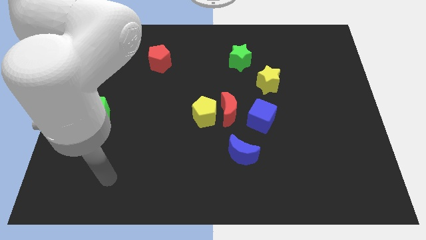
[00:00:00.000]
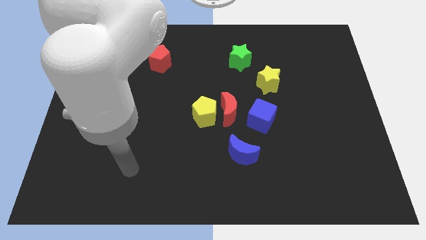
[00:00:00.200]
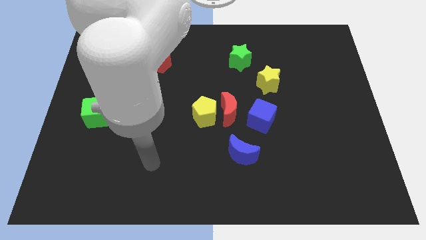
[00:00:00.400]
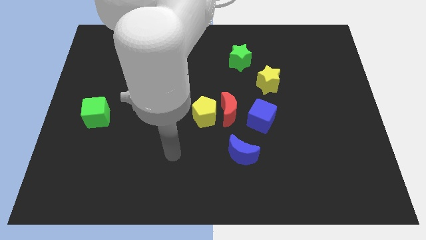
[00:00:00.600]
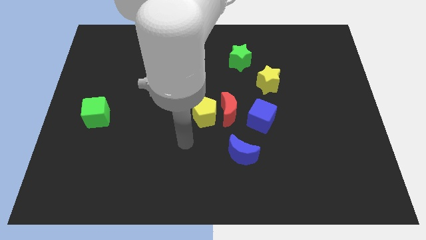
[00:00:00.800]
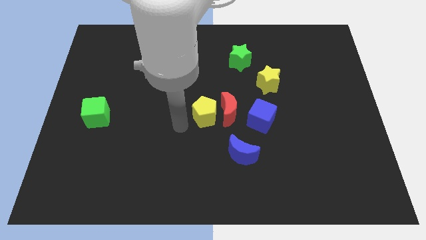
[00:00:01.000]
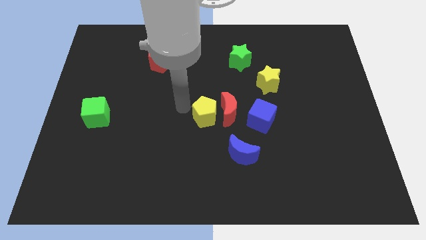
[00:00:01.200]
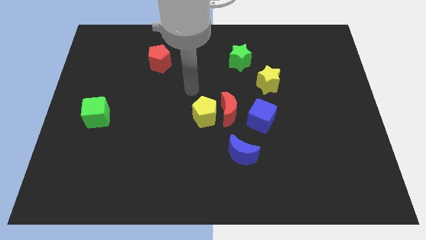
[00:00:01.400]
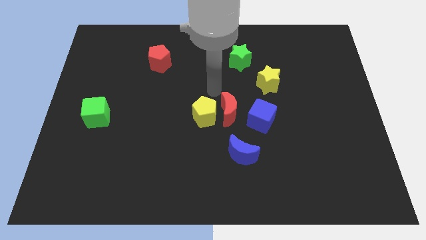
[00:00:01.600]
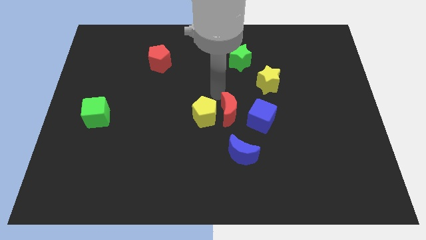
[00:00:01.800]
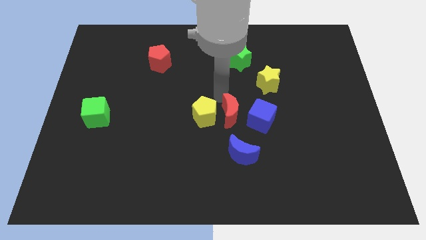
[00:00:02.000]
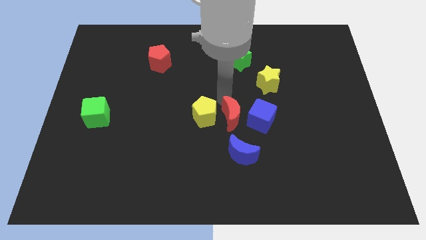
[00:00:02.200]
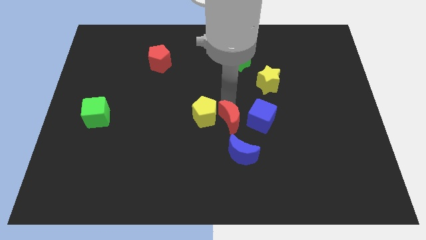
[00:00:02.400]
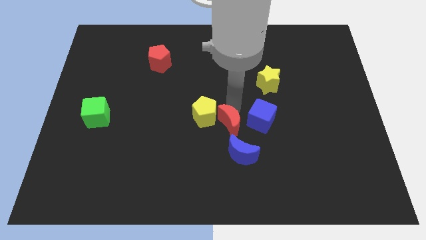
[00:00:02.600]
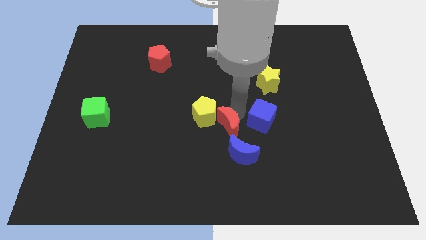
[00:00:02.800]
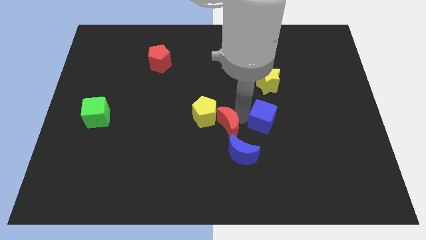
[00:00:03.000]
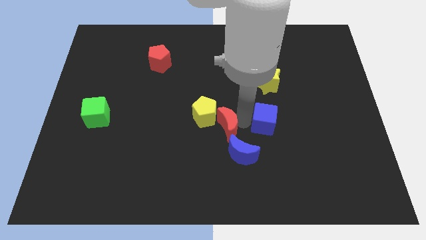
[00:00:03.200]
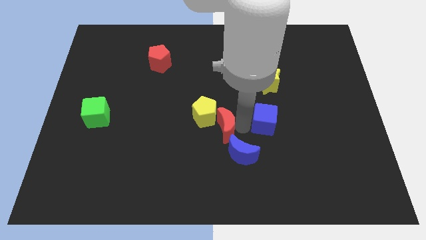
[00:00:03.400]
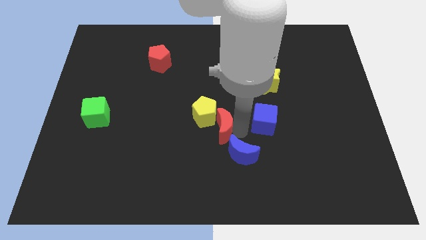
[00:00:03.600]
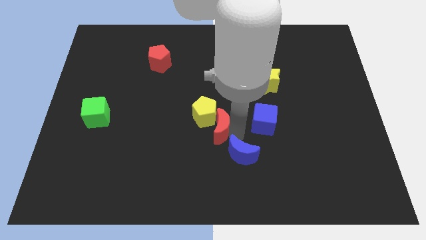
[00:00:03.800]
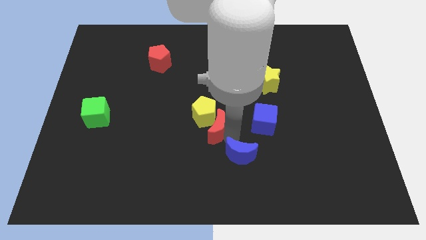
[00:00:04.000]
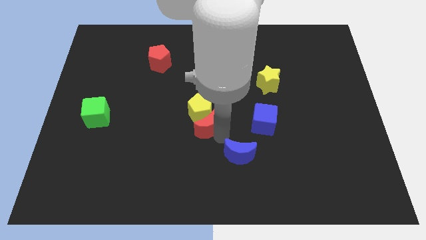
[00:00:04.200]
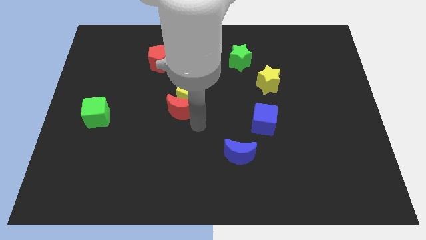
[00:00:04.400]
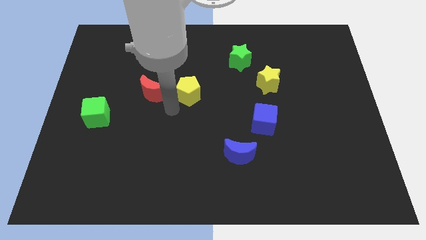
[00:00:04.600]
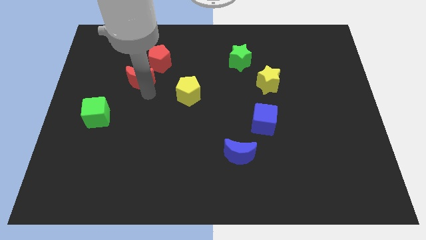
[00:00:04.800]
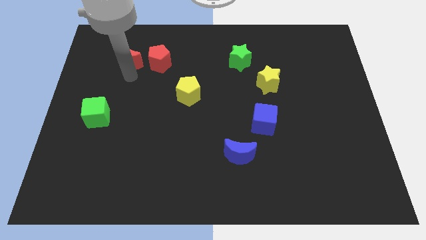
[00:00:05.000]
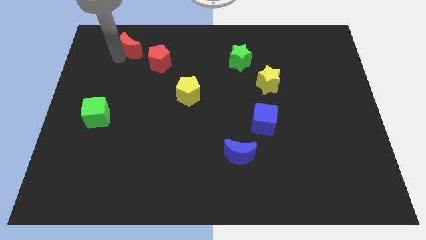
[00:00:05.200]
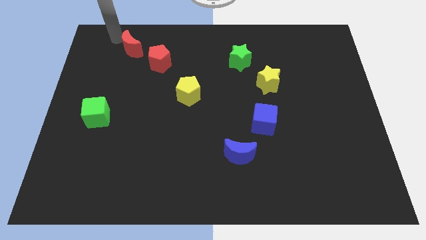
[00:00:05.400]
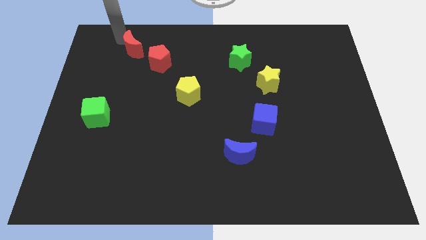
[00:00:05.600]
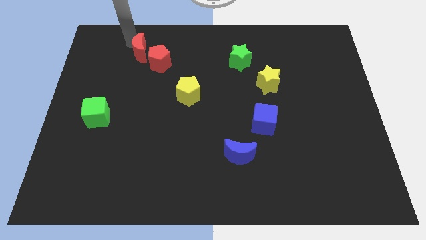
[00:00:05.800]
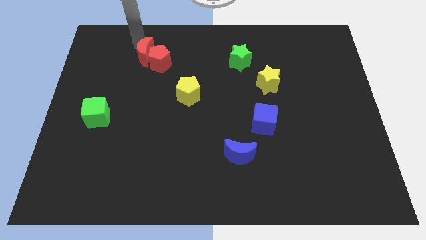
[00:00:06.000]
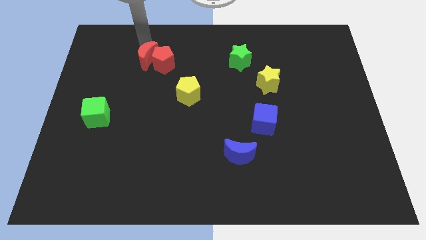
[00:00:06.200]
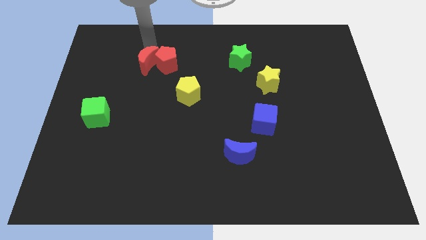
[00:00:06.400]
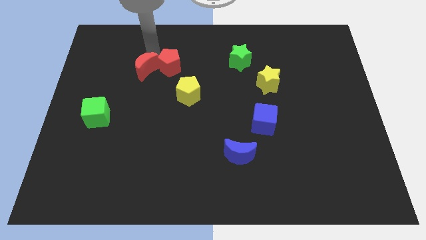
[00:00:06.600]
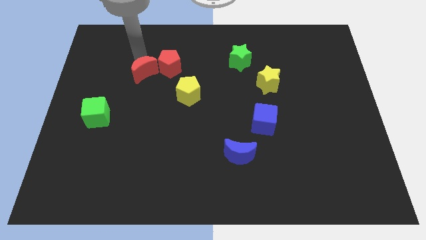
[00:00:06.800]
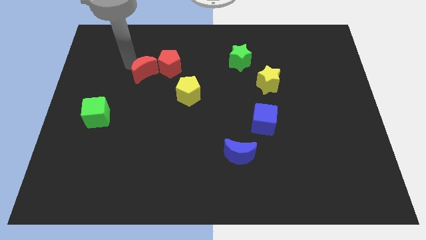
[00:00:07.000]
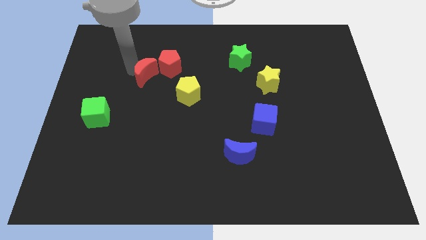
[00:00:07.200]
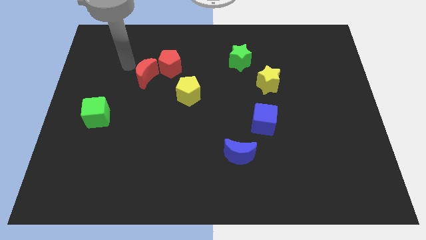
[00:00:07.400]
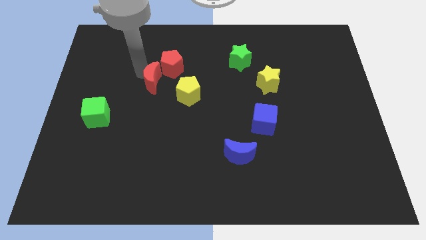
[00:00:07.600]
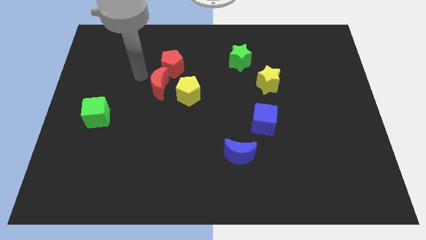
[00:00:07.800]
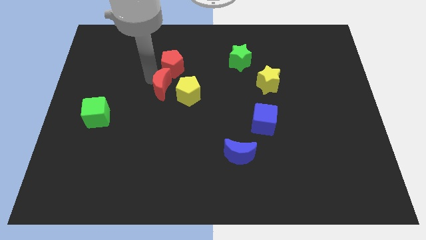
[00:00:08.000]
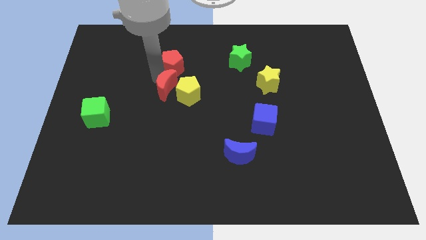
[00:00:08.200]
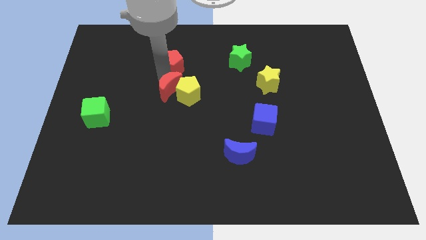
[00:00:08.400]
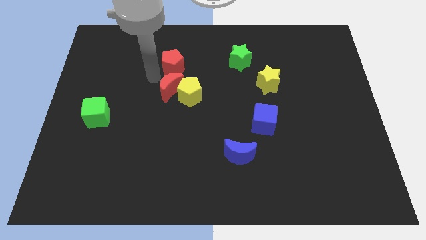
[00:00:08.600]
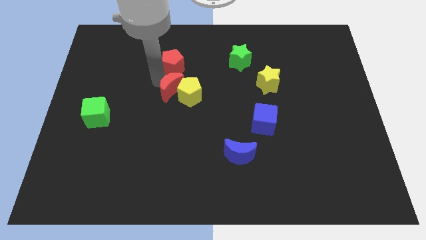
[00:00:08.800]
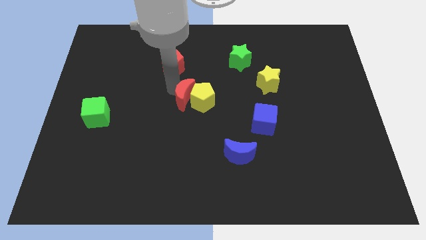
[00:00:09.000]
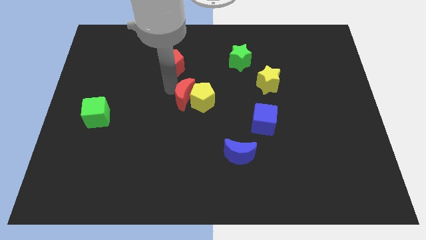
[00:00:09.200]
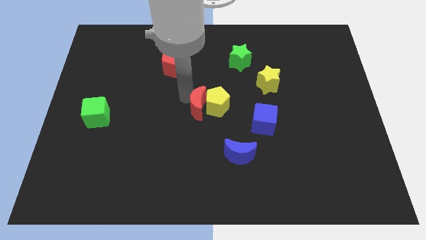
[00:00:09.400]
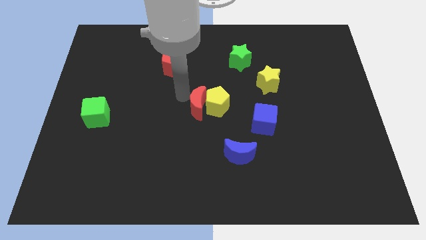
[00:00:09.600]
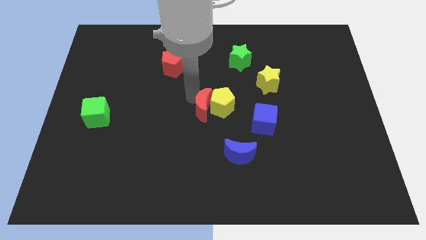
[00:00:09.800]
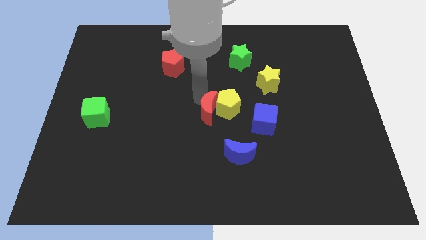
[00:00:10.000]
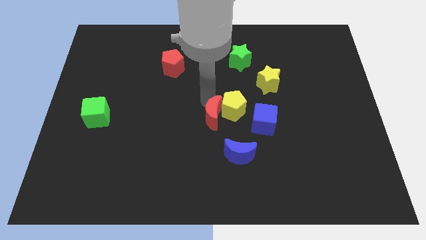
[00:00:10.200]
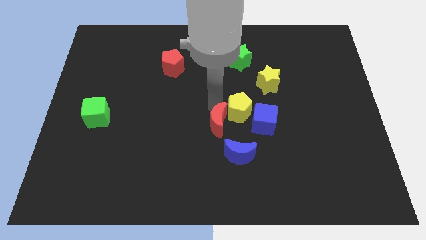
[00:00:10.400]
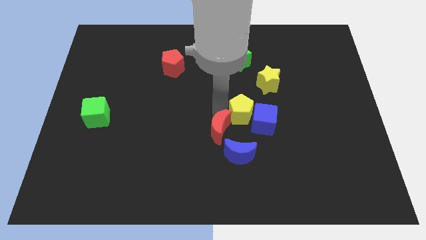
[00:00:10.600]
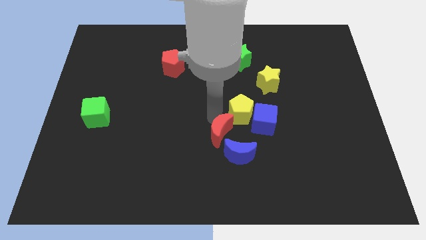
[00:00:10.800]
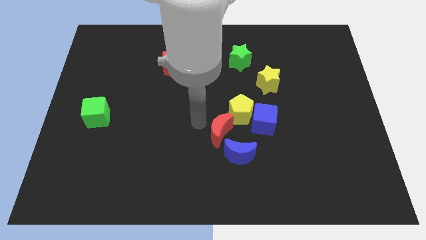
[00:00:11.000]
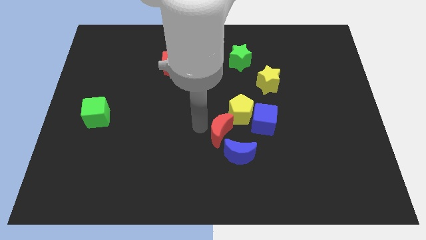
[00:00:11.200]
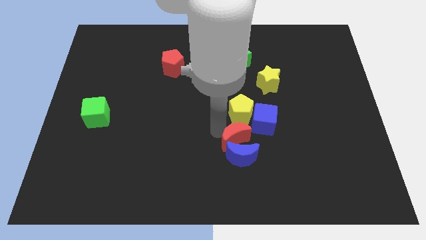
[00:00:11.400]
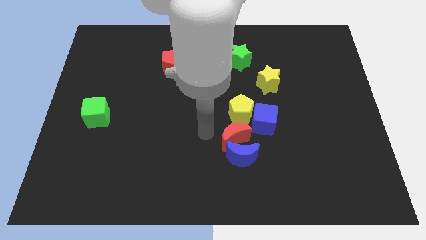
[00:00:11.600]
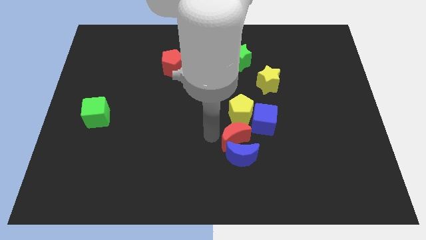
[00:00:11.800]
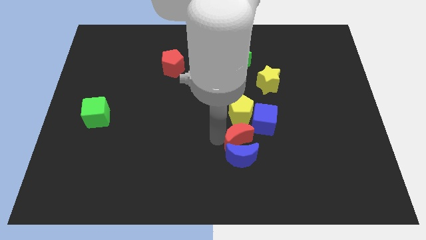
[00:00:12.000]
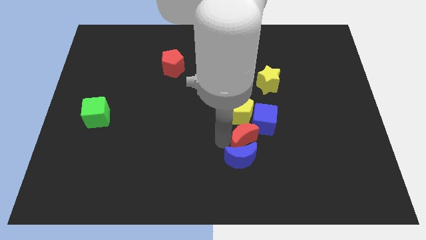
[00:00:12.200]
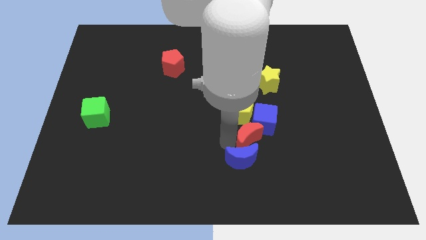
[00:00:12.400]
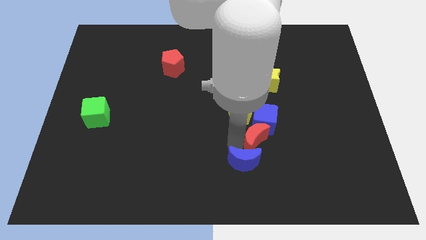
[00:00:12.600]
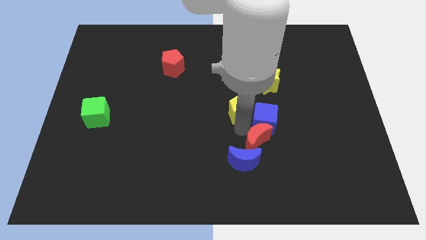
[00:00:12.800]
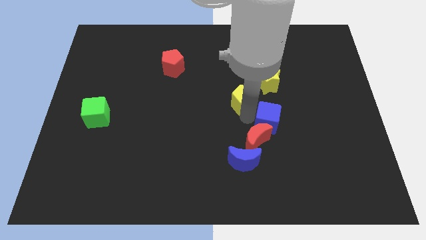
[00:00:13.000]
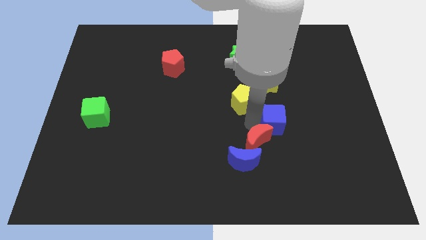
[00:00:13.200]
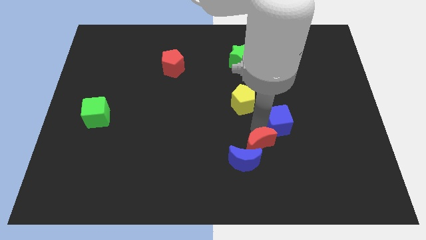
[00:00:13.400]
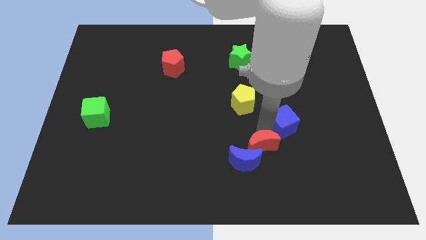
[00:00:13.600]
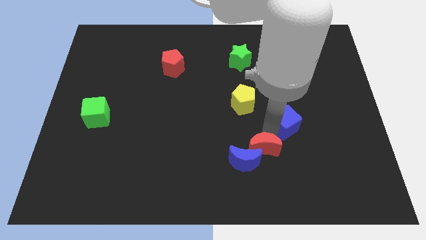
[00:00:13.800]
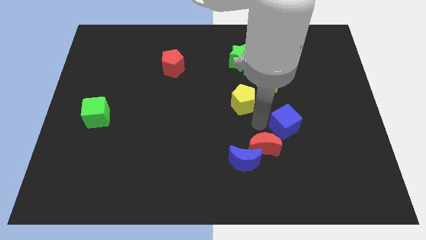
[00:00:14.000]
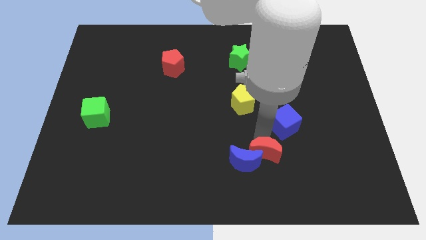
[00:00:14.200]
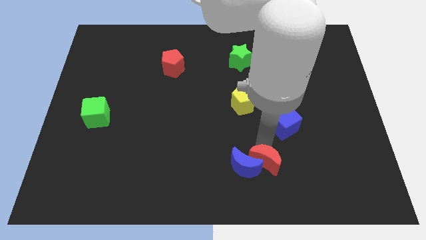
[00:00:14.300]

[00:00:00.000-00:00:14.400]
push the red moon diagonally down and to the right of the blue moon
